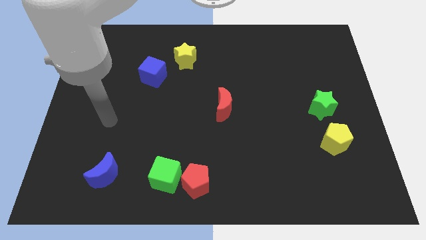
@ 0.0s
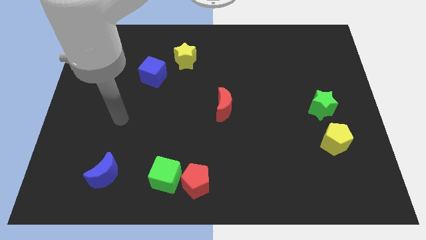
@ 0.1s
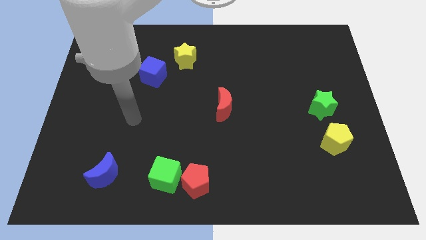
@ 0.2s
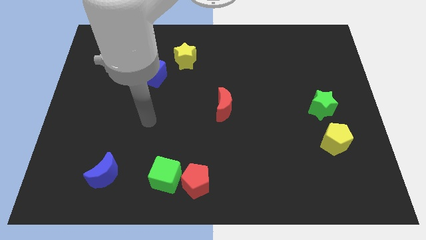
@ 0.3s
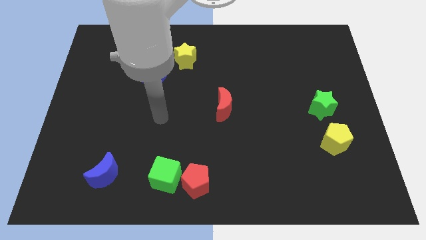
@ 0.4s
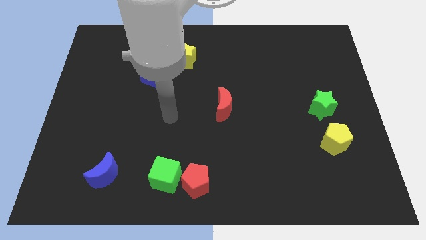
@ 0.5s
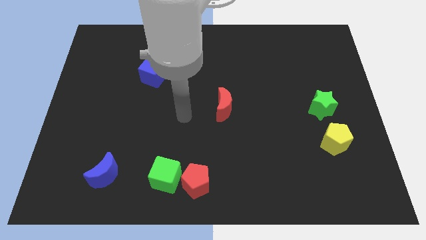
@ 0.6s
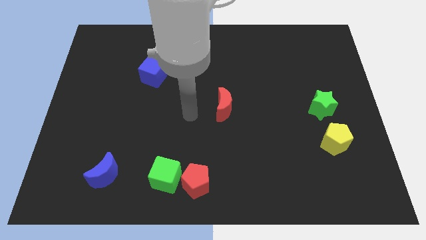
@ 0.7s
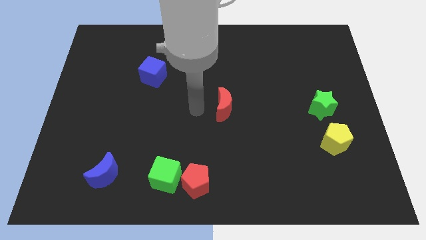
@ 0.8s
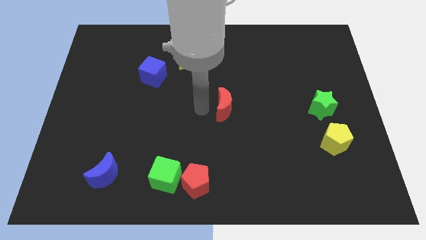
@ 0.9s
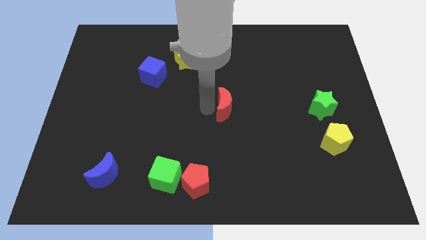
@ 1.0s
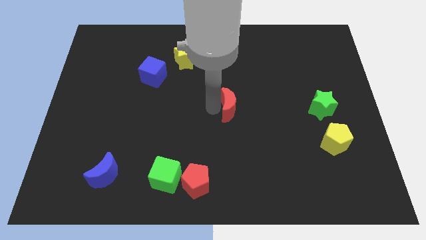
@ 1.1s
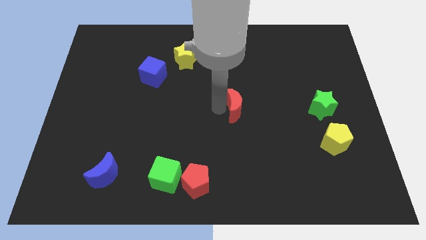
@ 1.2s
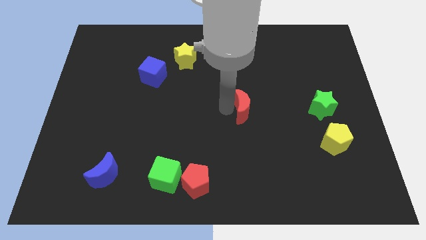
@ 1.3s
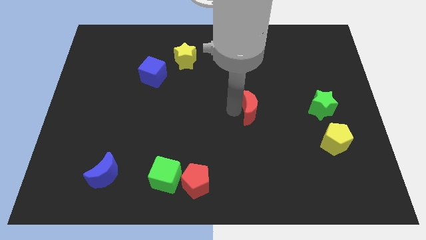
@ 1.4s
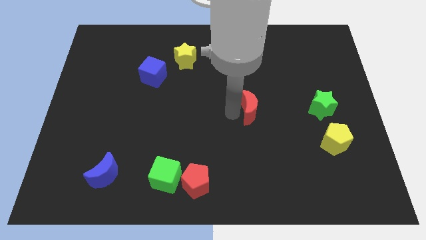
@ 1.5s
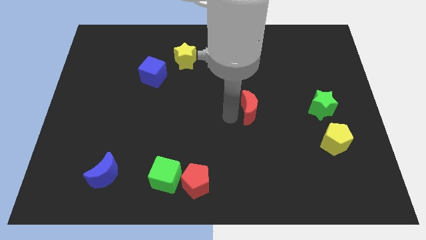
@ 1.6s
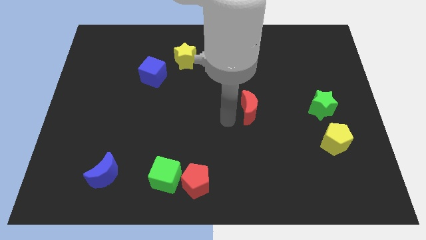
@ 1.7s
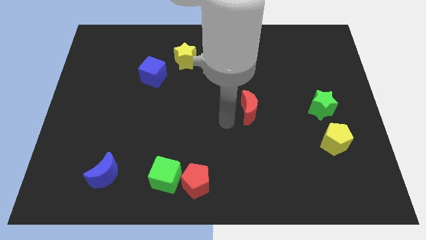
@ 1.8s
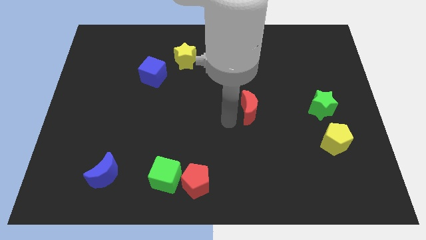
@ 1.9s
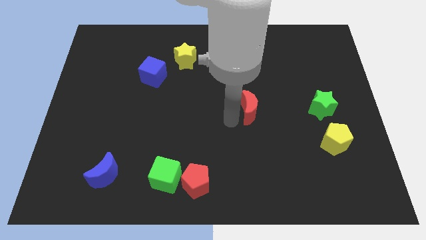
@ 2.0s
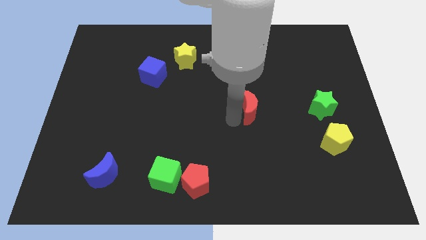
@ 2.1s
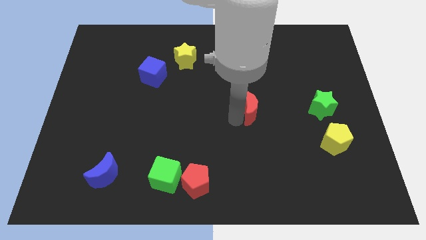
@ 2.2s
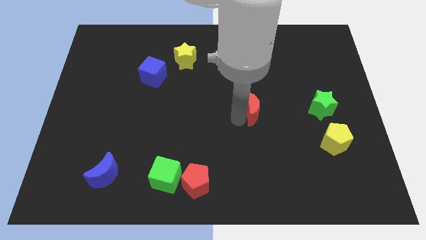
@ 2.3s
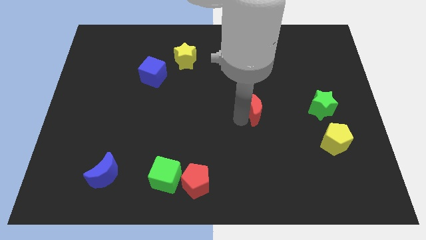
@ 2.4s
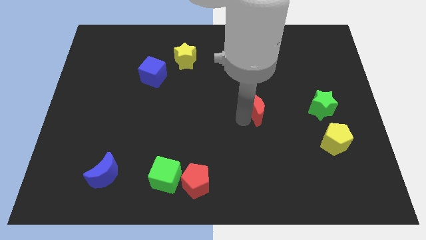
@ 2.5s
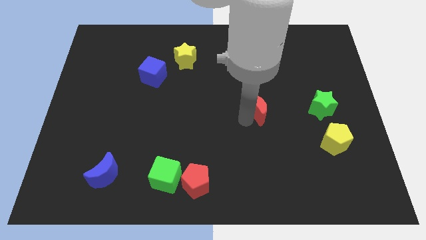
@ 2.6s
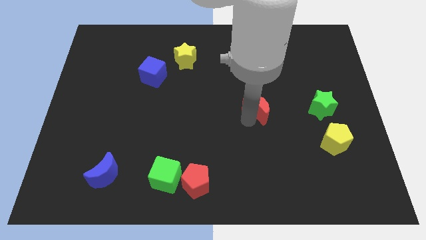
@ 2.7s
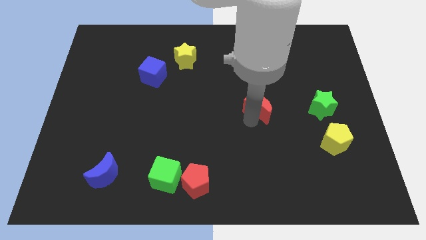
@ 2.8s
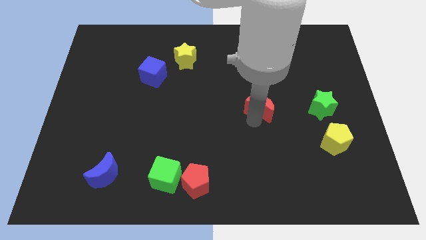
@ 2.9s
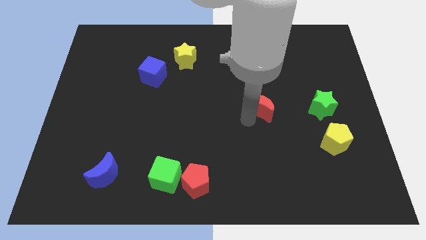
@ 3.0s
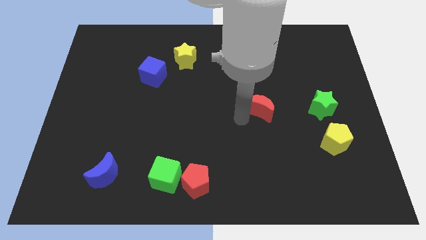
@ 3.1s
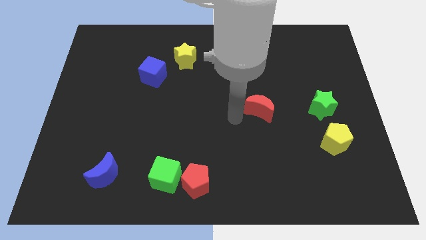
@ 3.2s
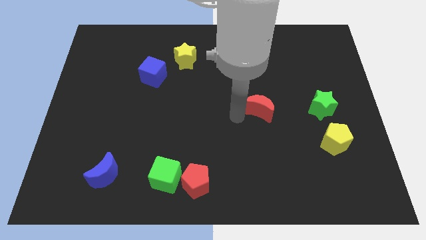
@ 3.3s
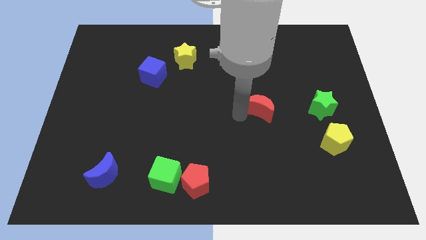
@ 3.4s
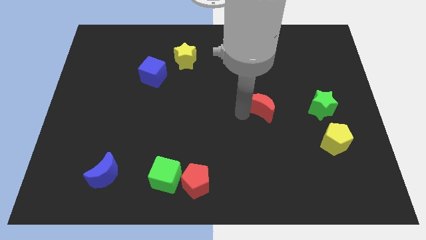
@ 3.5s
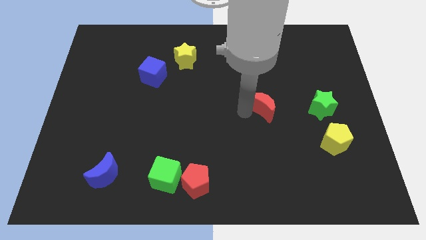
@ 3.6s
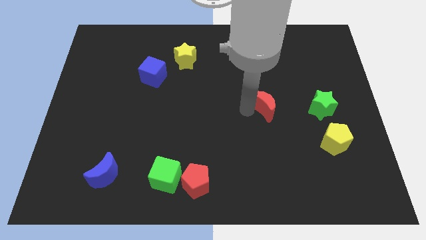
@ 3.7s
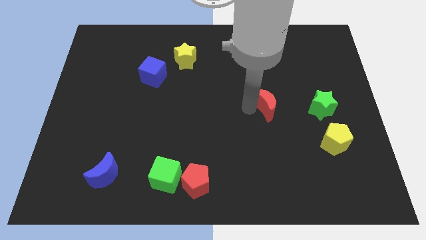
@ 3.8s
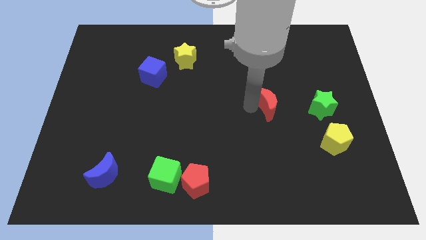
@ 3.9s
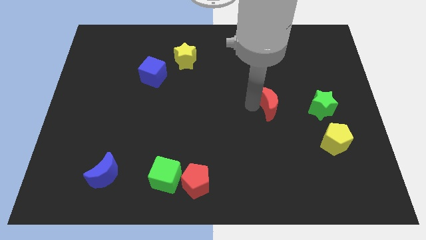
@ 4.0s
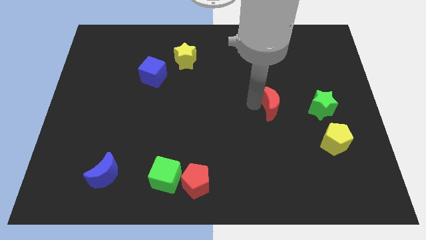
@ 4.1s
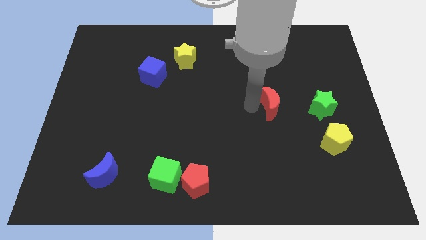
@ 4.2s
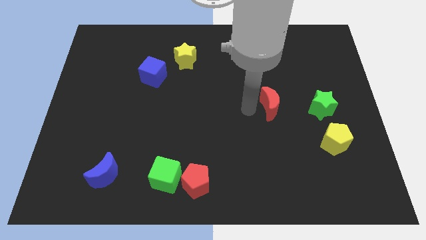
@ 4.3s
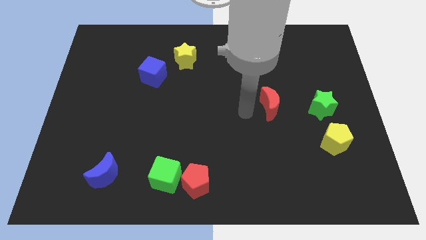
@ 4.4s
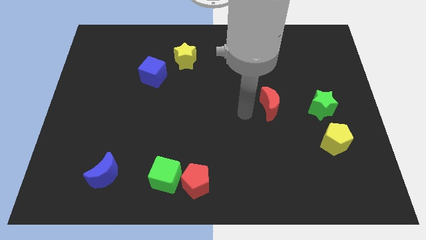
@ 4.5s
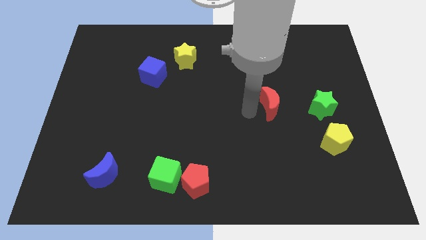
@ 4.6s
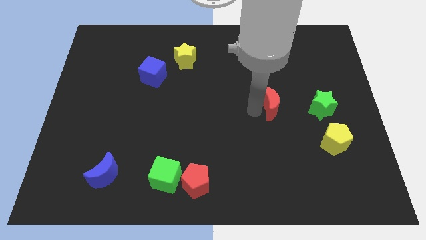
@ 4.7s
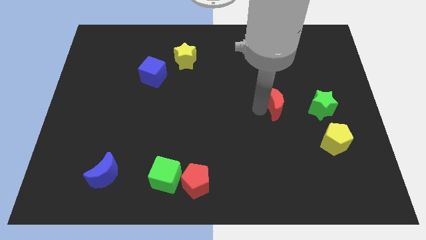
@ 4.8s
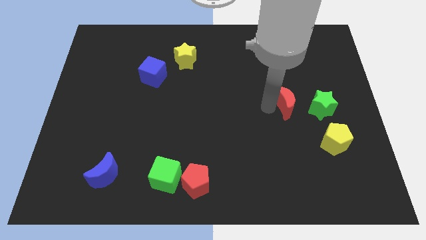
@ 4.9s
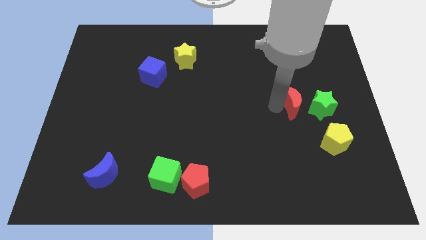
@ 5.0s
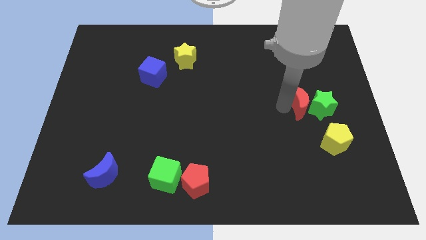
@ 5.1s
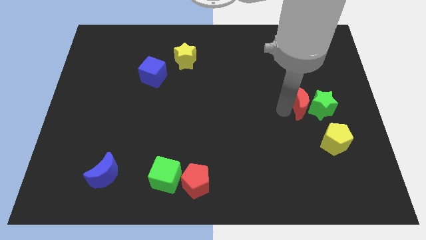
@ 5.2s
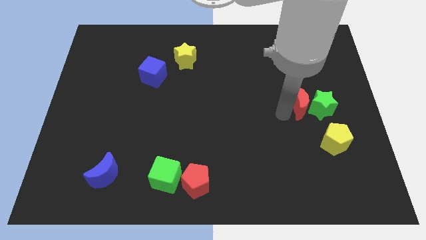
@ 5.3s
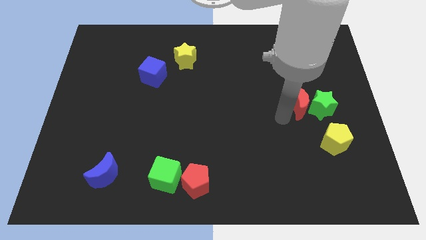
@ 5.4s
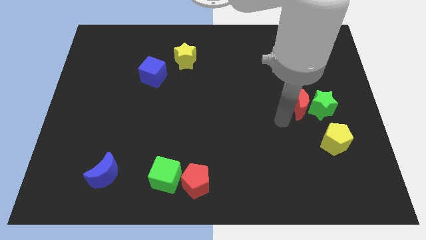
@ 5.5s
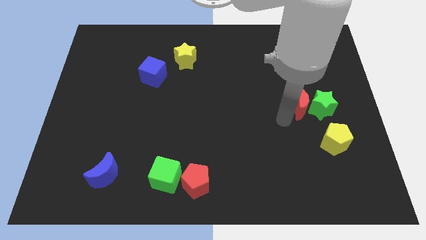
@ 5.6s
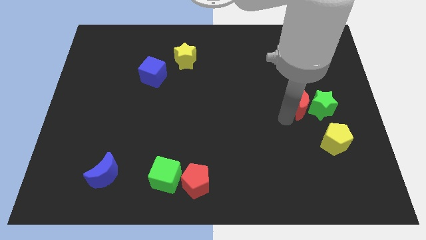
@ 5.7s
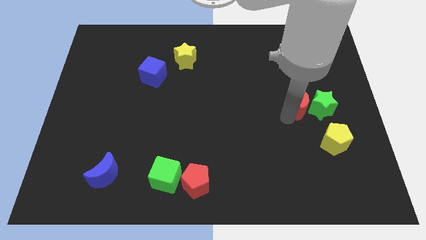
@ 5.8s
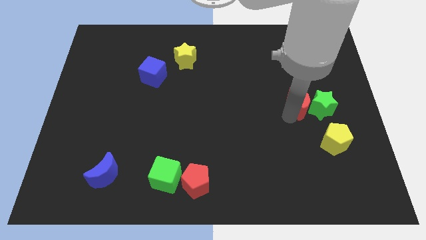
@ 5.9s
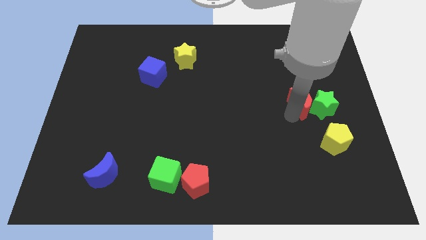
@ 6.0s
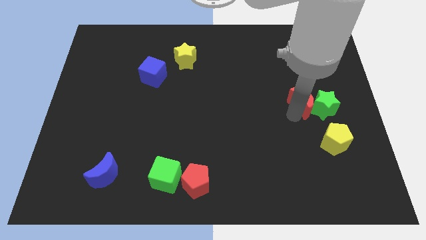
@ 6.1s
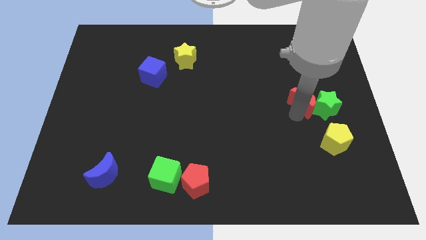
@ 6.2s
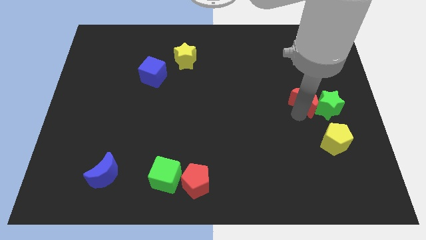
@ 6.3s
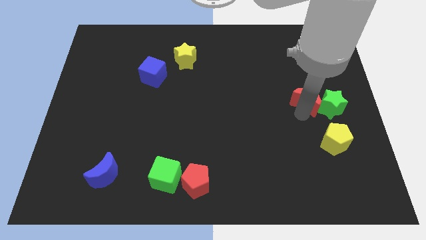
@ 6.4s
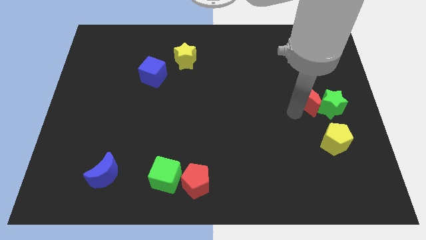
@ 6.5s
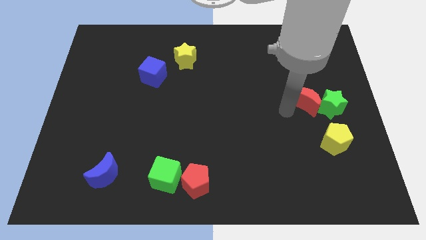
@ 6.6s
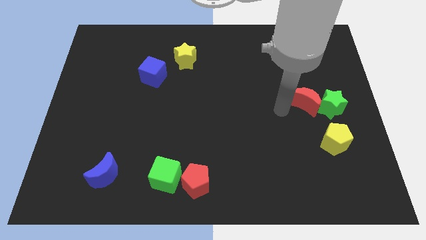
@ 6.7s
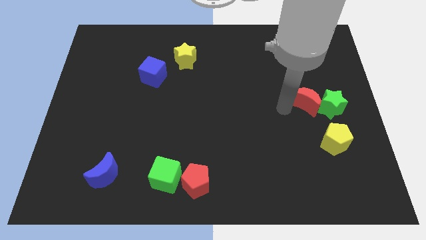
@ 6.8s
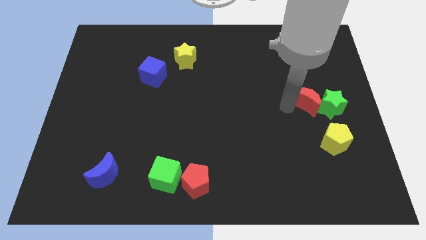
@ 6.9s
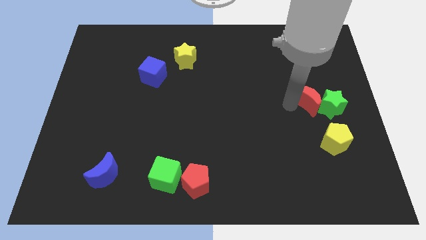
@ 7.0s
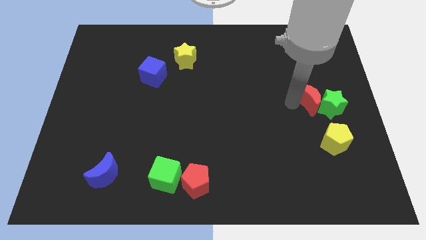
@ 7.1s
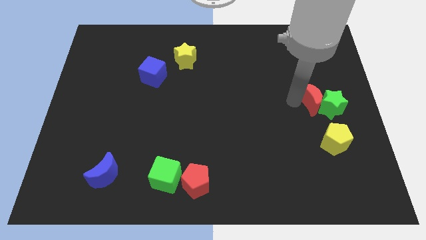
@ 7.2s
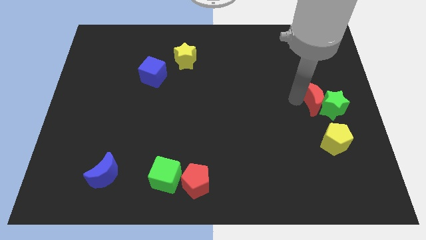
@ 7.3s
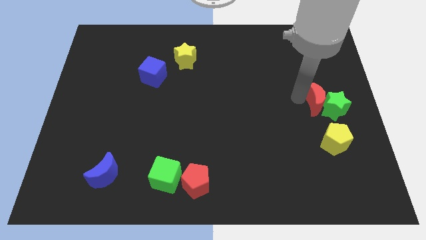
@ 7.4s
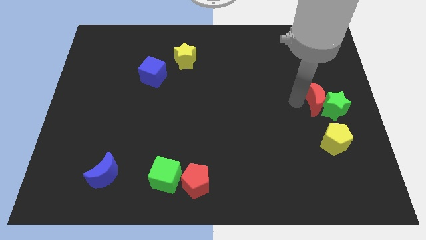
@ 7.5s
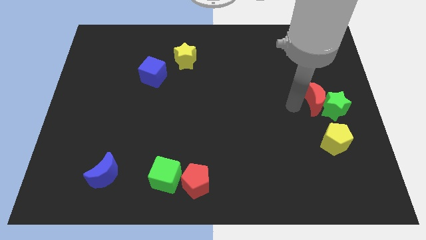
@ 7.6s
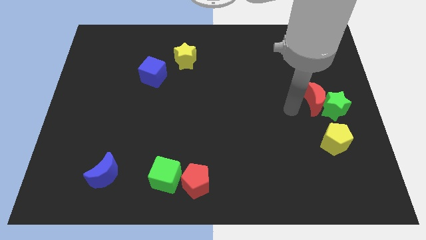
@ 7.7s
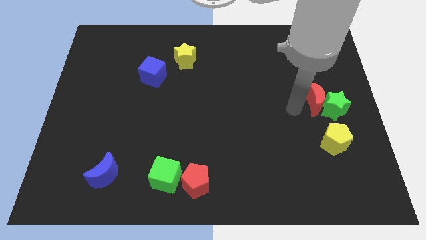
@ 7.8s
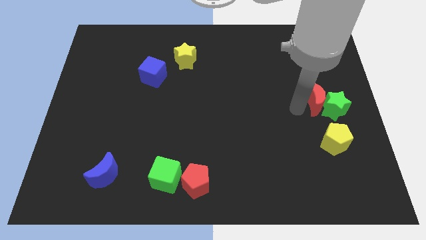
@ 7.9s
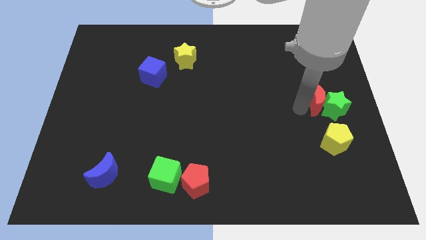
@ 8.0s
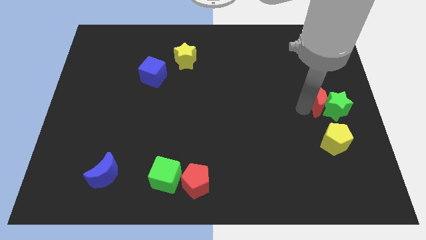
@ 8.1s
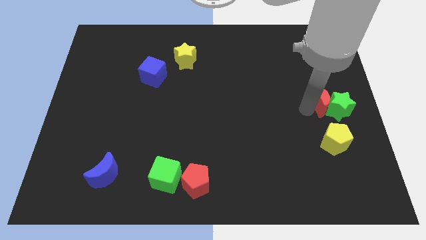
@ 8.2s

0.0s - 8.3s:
move the red moon to the right side
